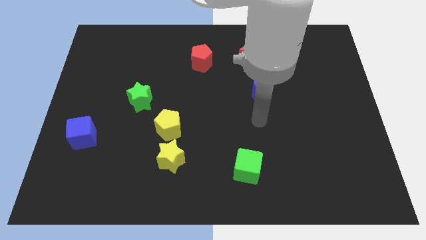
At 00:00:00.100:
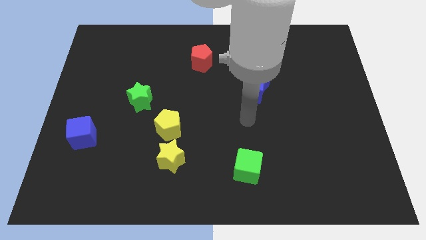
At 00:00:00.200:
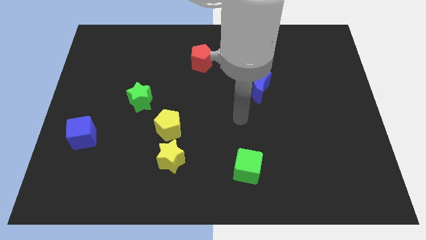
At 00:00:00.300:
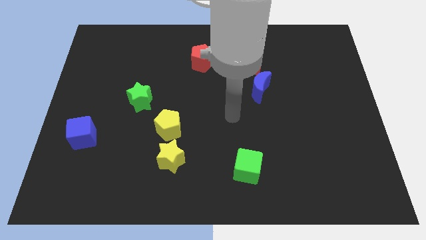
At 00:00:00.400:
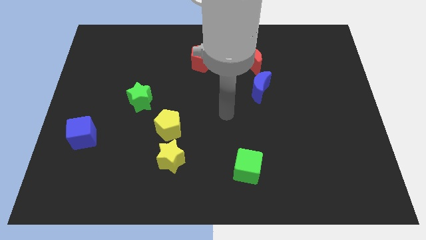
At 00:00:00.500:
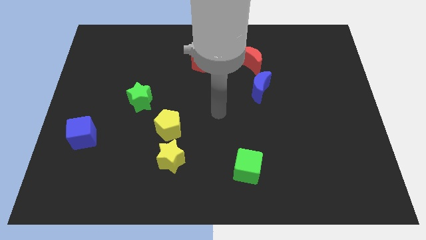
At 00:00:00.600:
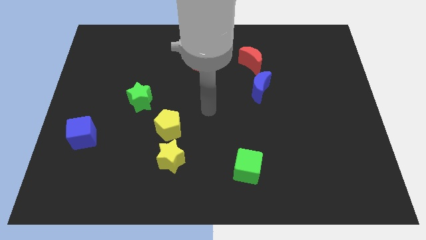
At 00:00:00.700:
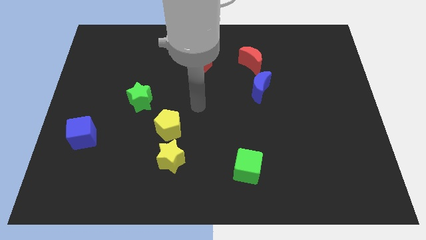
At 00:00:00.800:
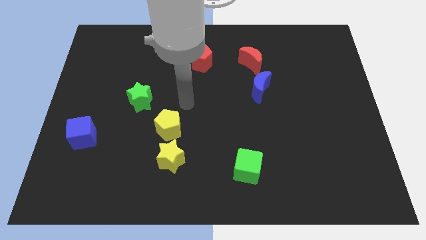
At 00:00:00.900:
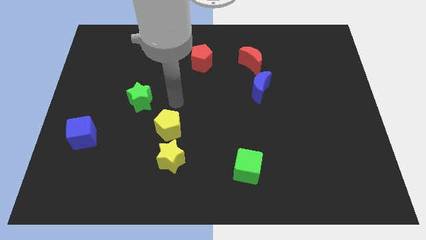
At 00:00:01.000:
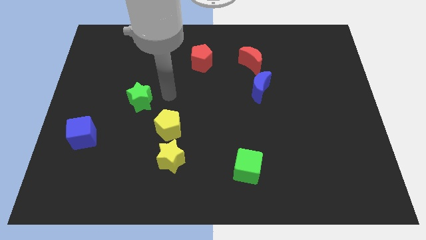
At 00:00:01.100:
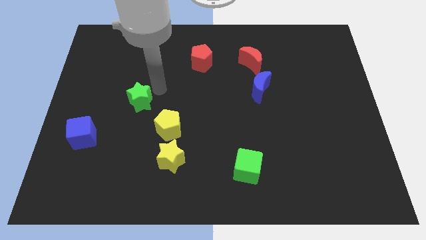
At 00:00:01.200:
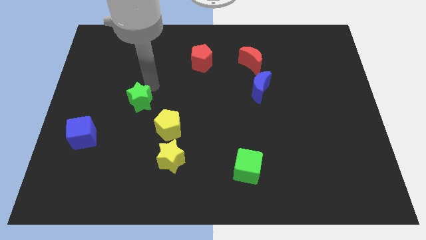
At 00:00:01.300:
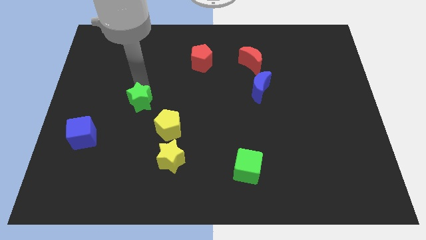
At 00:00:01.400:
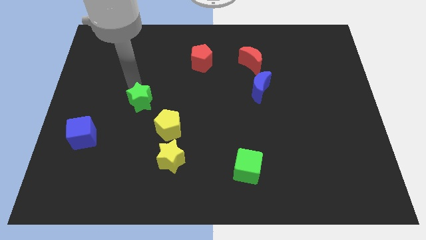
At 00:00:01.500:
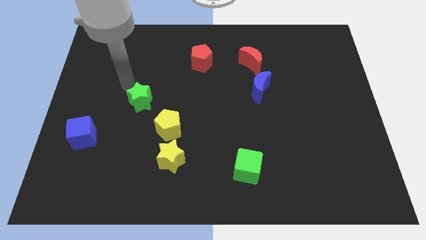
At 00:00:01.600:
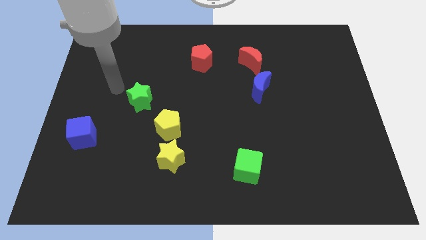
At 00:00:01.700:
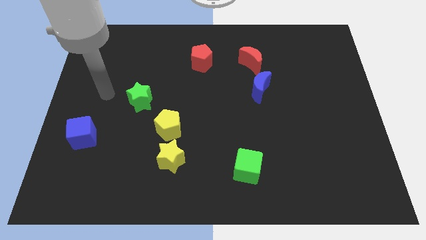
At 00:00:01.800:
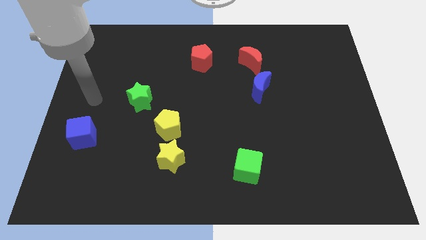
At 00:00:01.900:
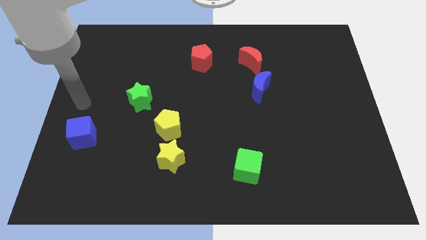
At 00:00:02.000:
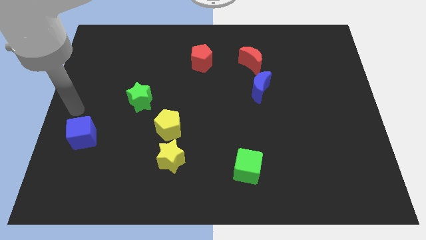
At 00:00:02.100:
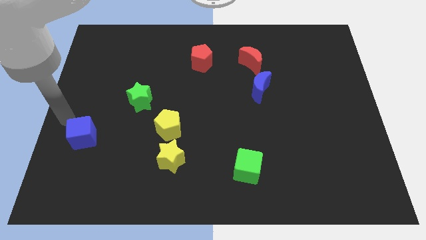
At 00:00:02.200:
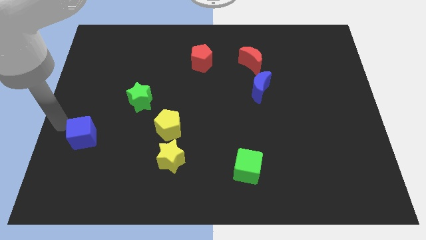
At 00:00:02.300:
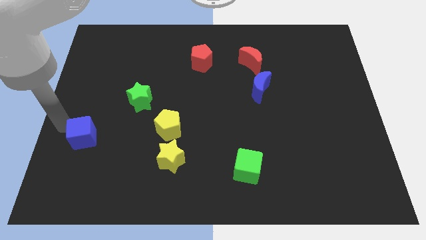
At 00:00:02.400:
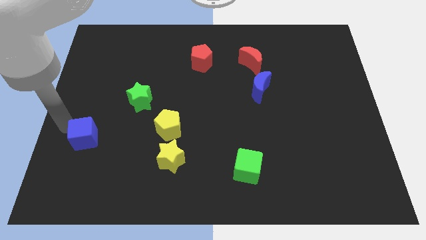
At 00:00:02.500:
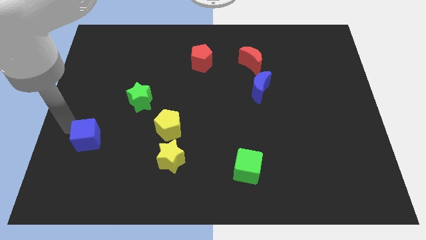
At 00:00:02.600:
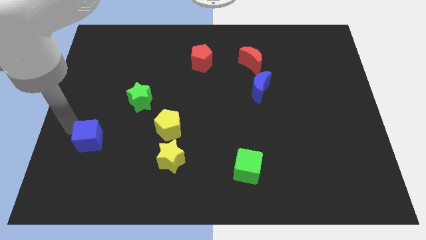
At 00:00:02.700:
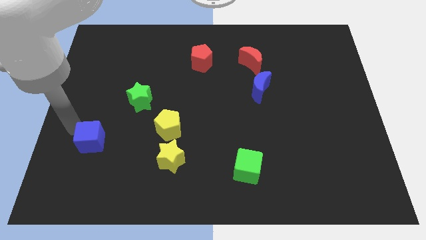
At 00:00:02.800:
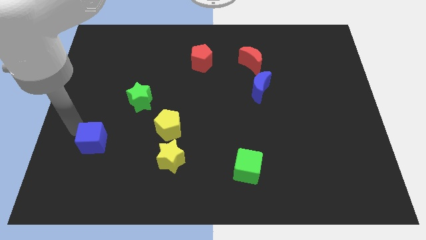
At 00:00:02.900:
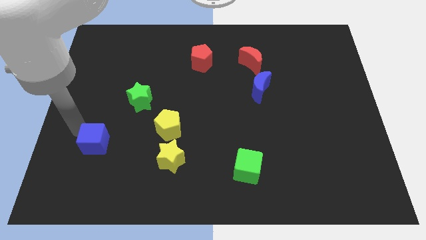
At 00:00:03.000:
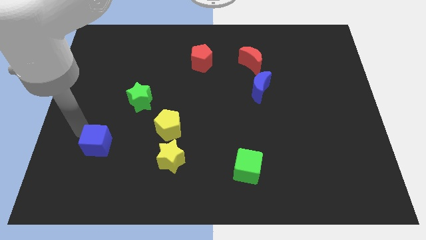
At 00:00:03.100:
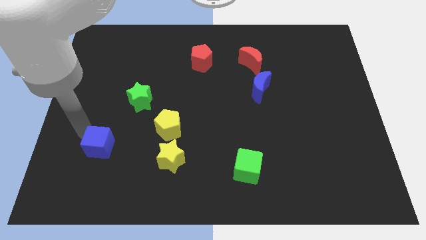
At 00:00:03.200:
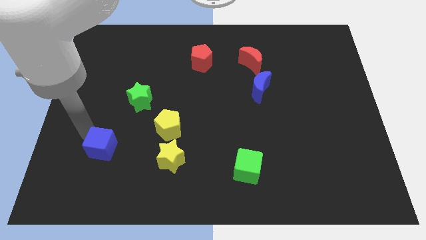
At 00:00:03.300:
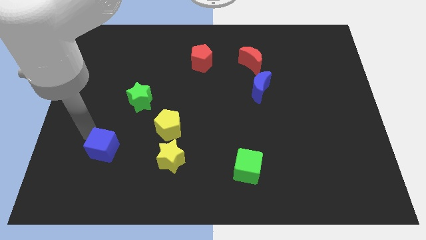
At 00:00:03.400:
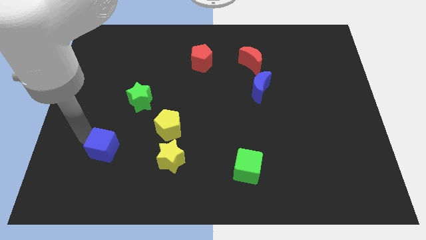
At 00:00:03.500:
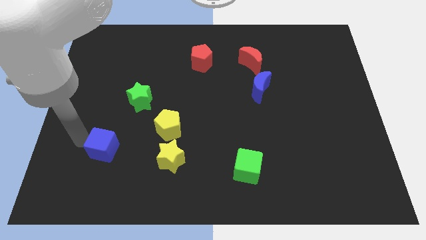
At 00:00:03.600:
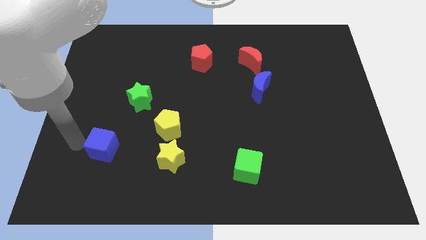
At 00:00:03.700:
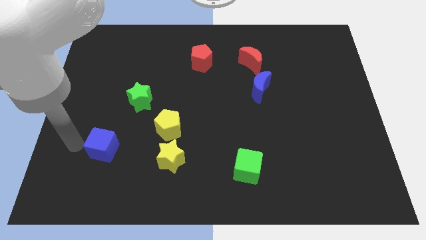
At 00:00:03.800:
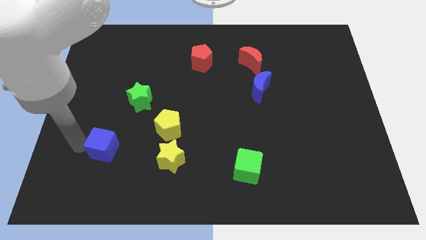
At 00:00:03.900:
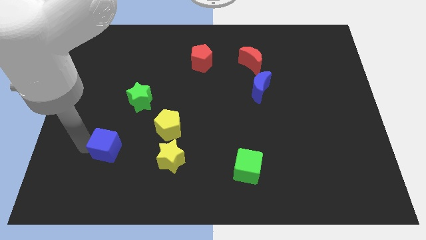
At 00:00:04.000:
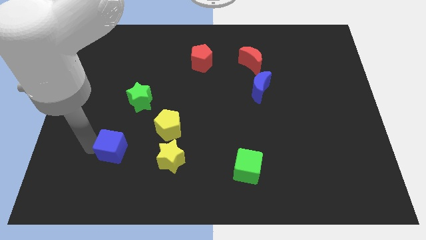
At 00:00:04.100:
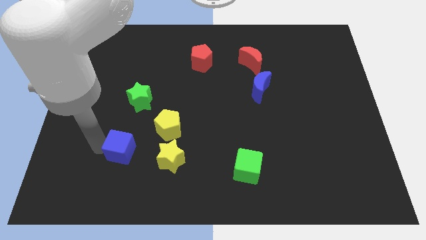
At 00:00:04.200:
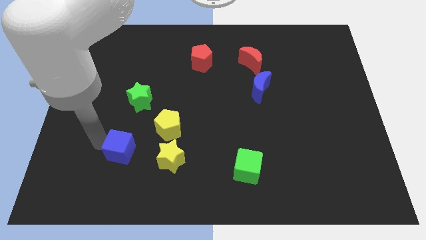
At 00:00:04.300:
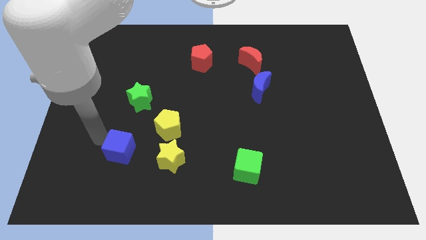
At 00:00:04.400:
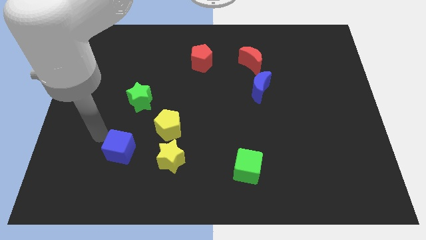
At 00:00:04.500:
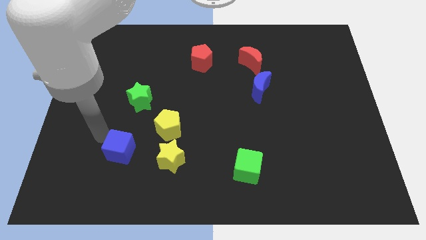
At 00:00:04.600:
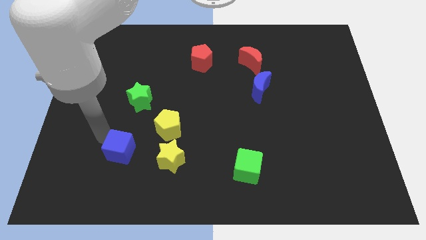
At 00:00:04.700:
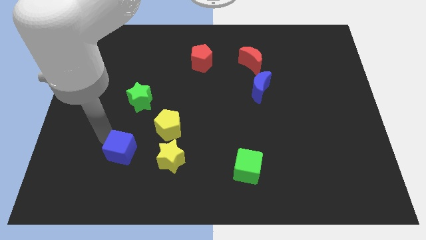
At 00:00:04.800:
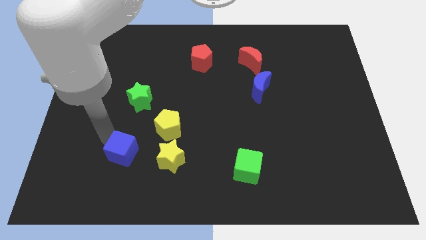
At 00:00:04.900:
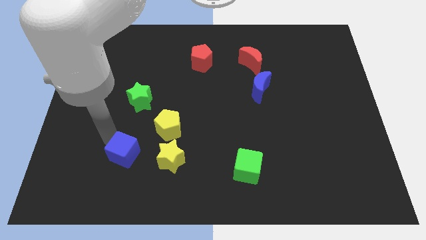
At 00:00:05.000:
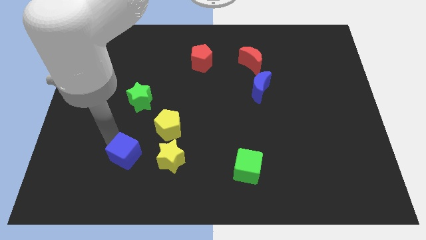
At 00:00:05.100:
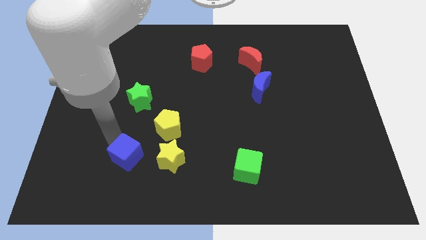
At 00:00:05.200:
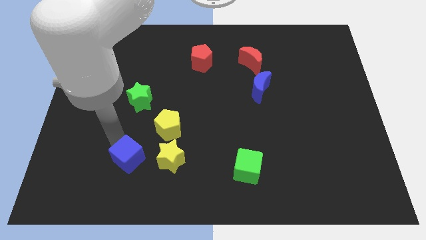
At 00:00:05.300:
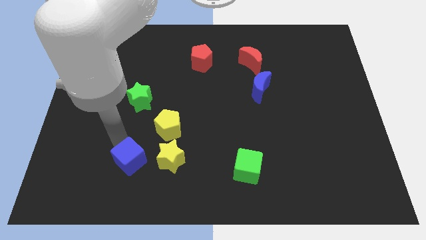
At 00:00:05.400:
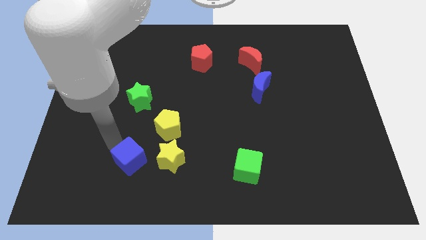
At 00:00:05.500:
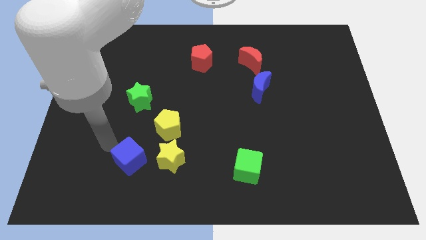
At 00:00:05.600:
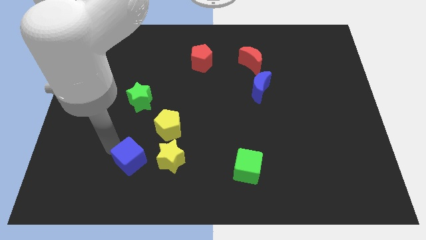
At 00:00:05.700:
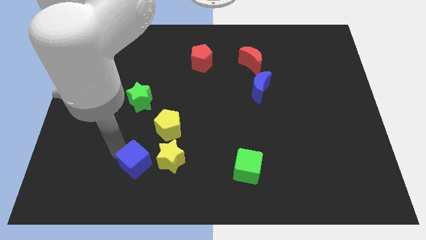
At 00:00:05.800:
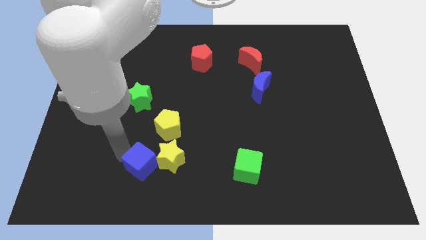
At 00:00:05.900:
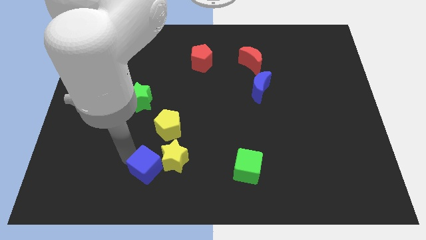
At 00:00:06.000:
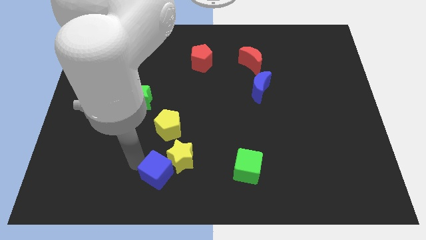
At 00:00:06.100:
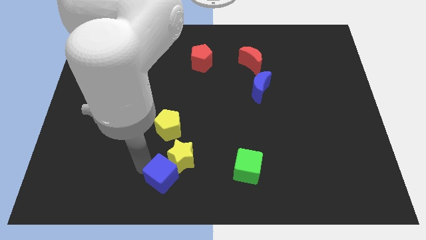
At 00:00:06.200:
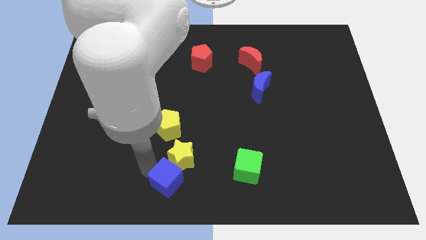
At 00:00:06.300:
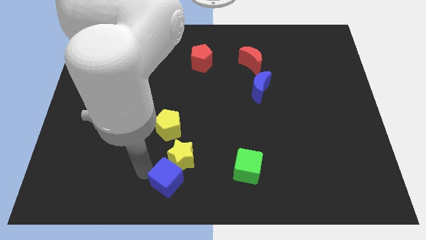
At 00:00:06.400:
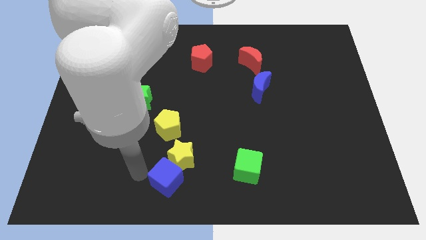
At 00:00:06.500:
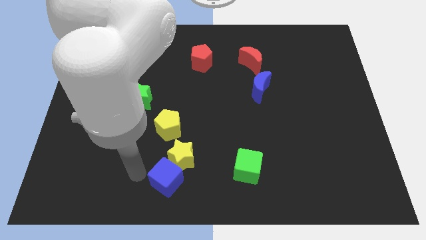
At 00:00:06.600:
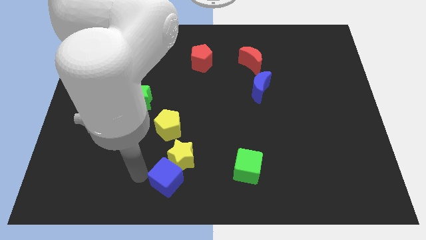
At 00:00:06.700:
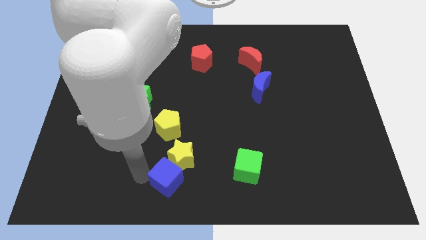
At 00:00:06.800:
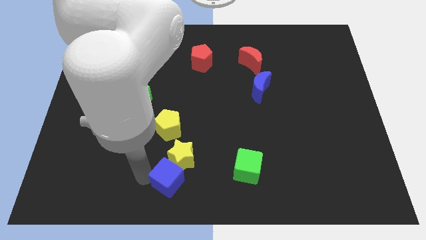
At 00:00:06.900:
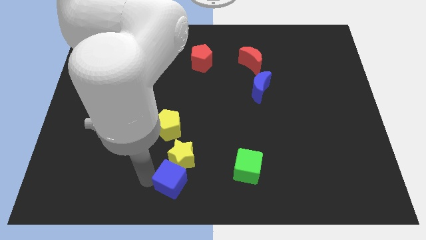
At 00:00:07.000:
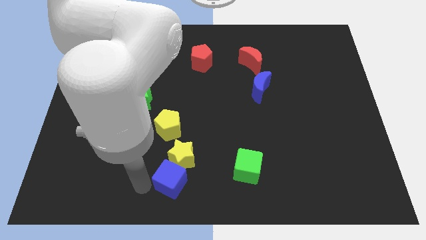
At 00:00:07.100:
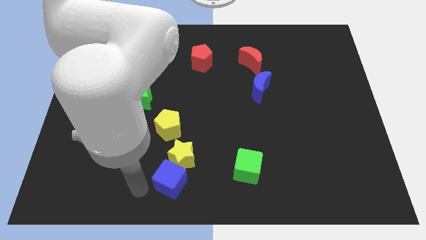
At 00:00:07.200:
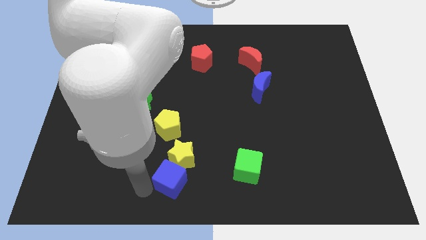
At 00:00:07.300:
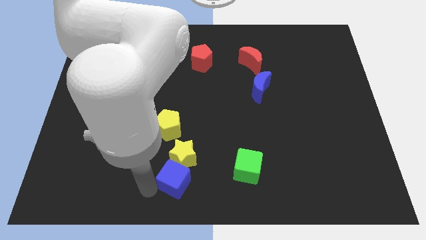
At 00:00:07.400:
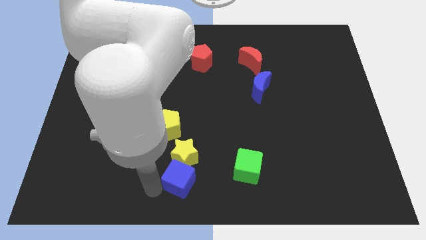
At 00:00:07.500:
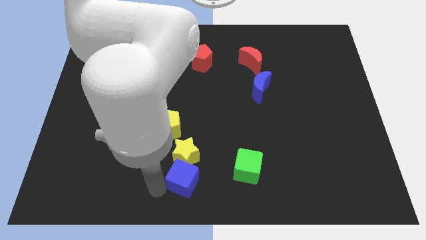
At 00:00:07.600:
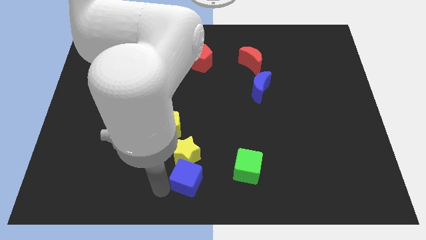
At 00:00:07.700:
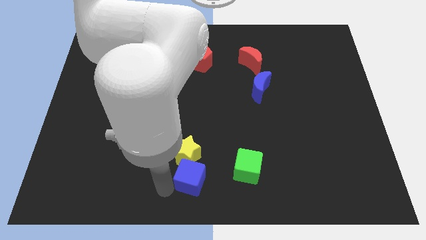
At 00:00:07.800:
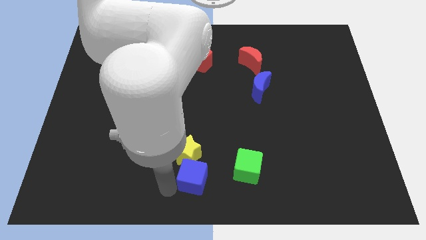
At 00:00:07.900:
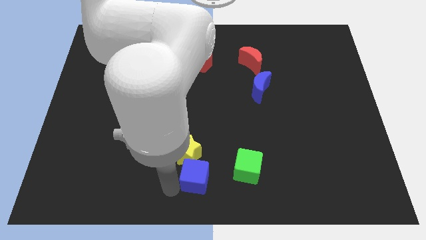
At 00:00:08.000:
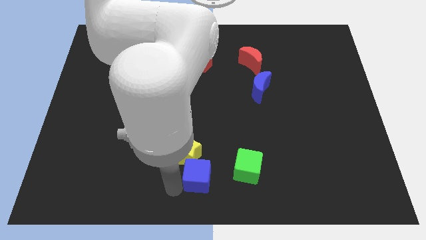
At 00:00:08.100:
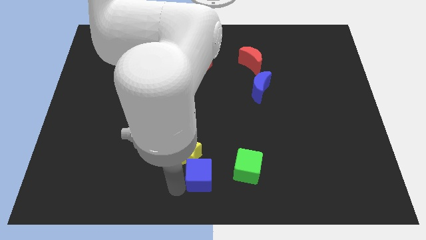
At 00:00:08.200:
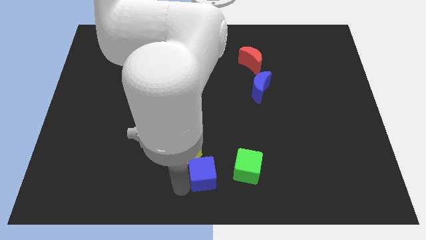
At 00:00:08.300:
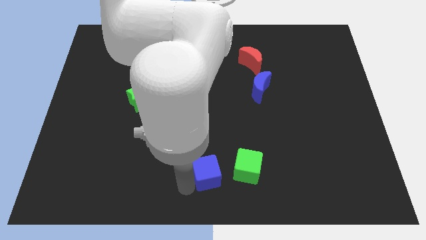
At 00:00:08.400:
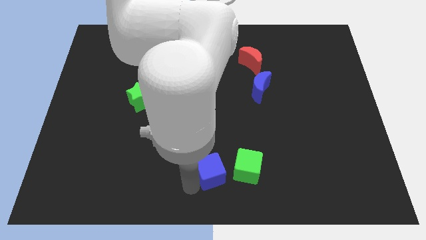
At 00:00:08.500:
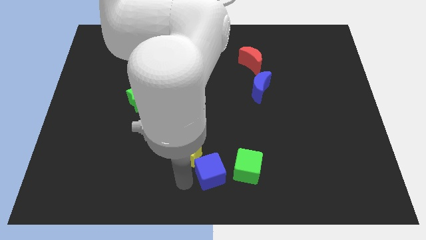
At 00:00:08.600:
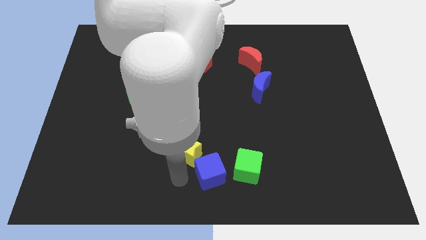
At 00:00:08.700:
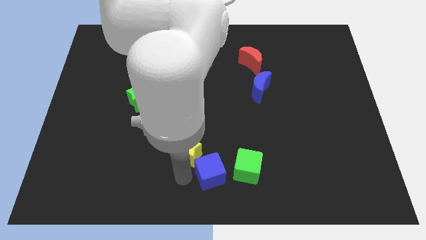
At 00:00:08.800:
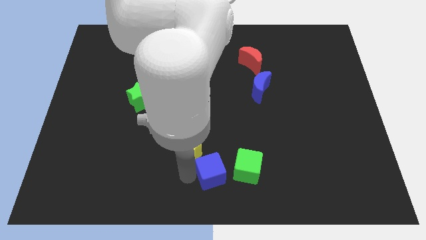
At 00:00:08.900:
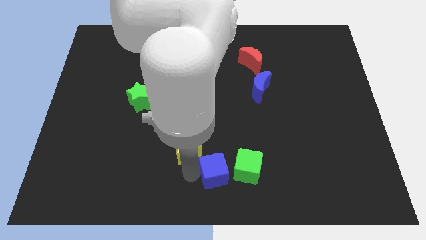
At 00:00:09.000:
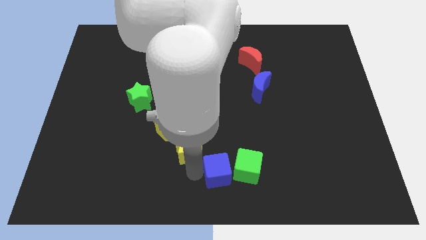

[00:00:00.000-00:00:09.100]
put the blue cube close to the green cube
